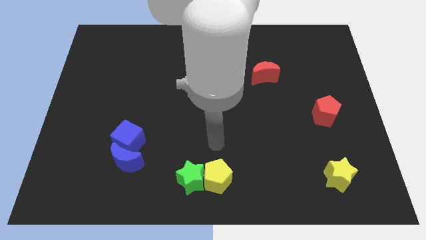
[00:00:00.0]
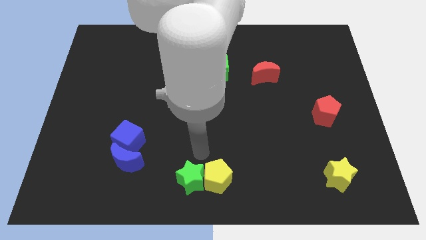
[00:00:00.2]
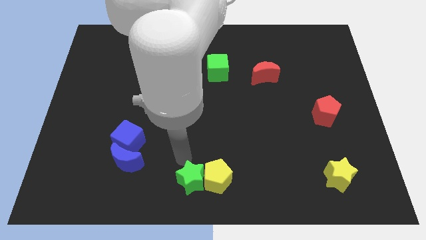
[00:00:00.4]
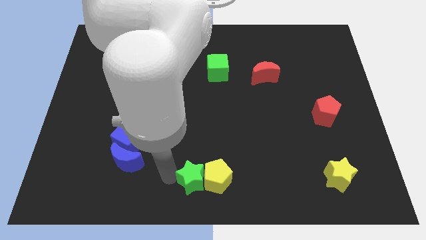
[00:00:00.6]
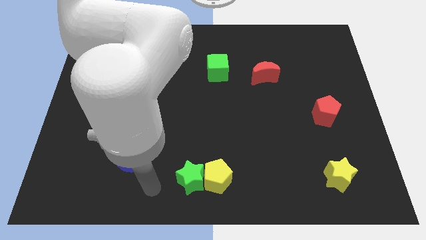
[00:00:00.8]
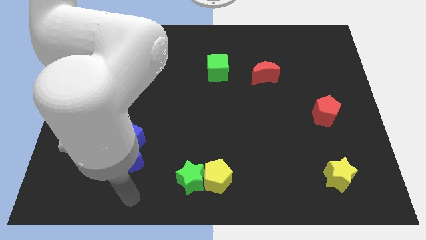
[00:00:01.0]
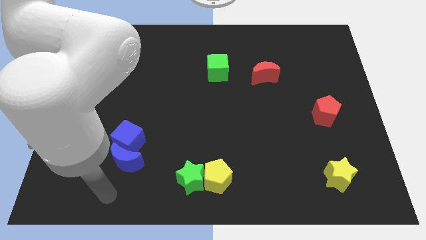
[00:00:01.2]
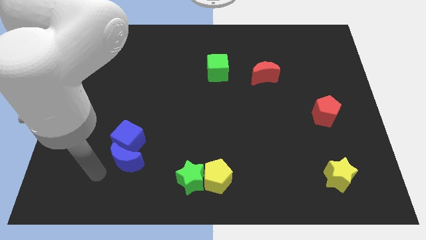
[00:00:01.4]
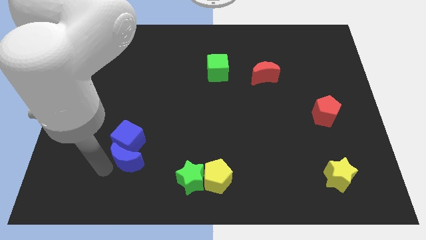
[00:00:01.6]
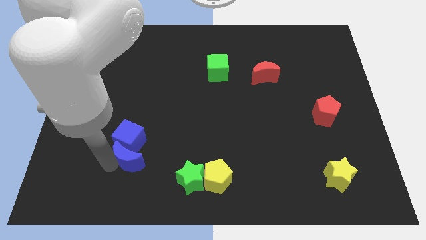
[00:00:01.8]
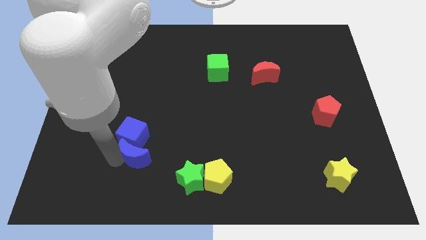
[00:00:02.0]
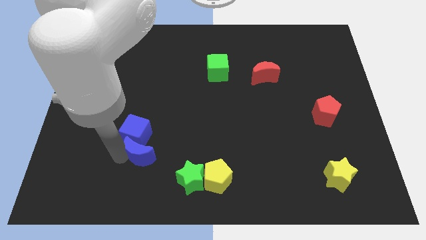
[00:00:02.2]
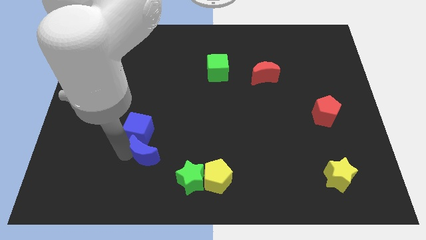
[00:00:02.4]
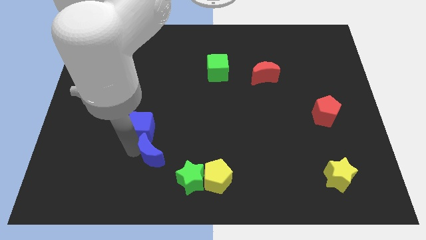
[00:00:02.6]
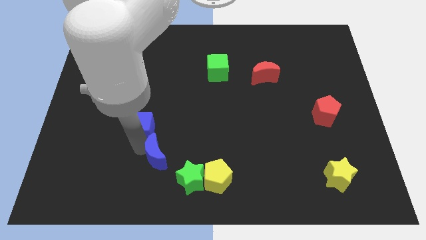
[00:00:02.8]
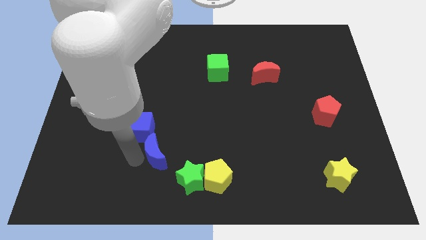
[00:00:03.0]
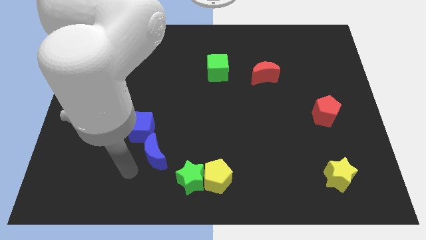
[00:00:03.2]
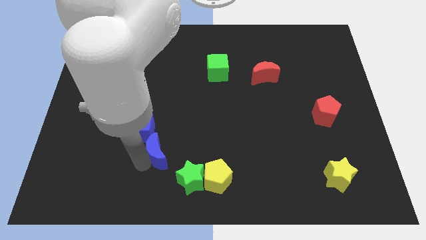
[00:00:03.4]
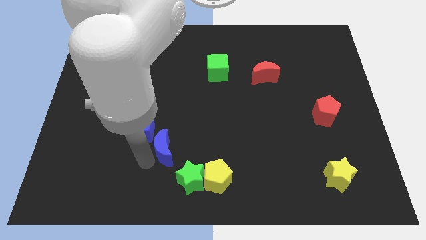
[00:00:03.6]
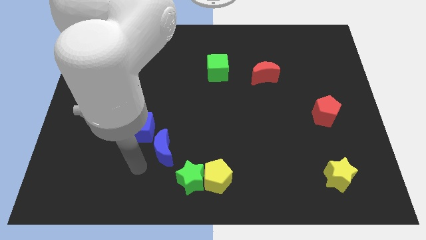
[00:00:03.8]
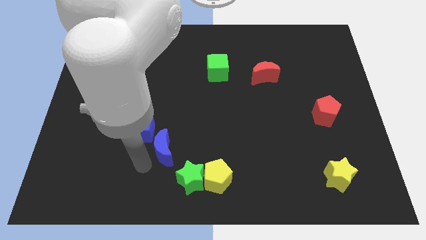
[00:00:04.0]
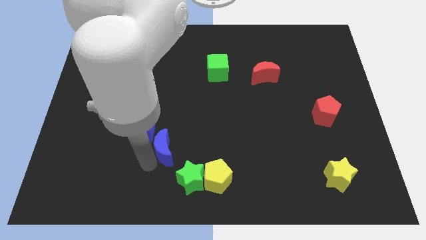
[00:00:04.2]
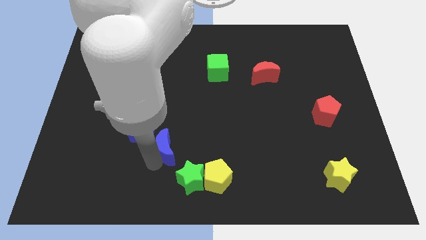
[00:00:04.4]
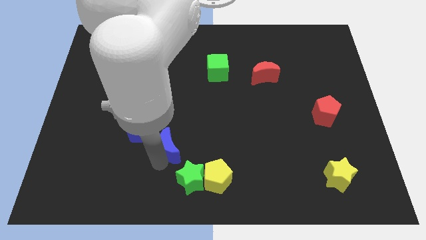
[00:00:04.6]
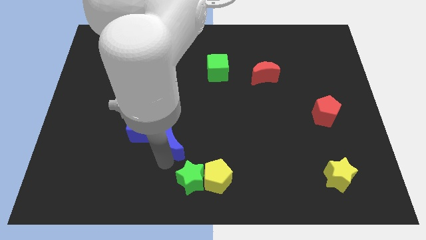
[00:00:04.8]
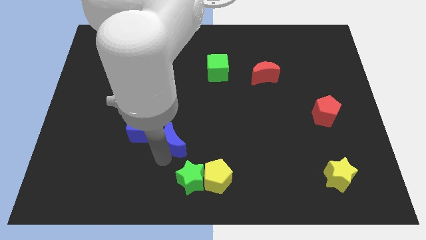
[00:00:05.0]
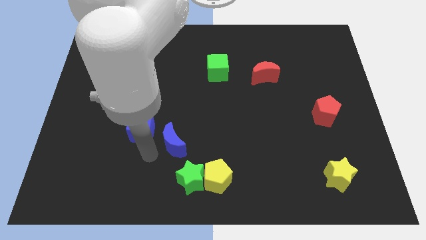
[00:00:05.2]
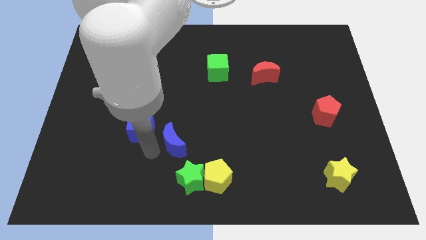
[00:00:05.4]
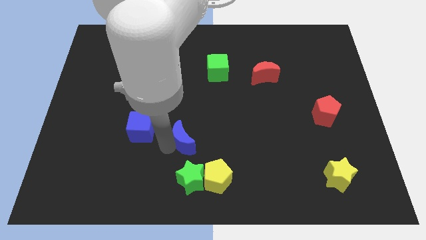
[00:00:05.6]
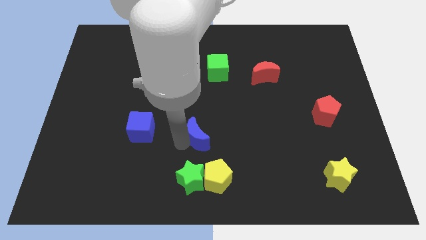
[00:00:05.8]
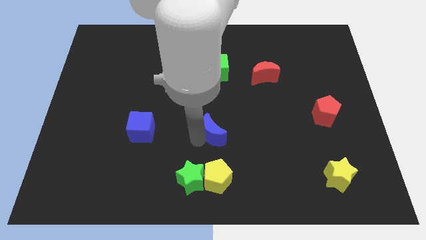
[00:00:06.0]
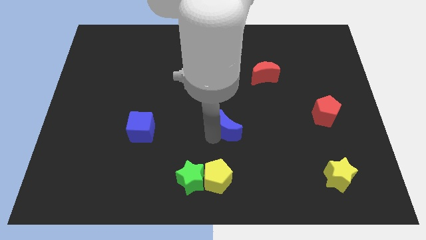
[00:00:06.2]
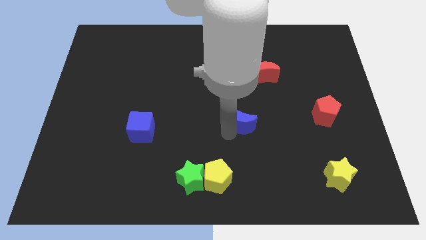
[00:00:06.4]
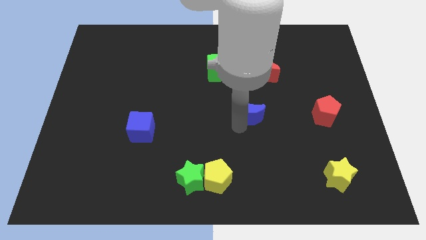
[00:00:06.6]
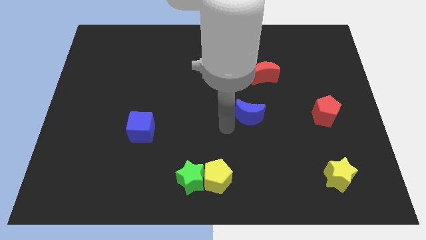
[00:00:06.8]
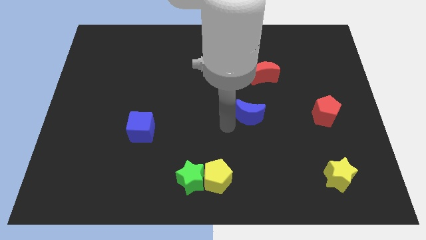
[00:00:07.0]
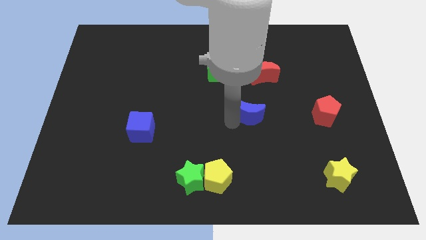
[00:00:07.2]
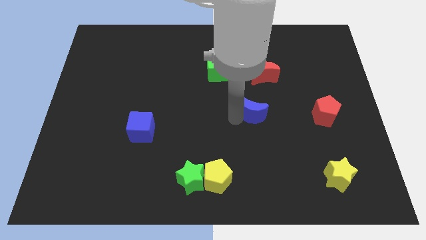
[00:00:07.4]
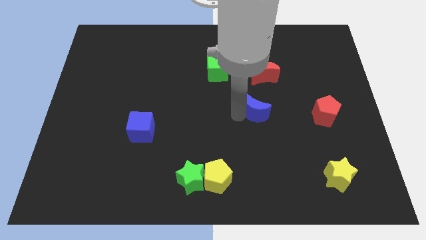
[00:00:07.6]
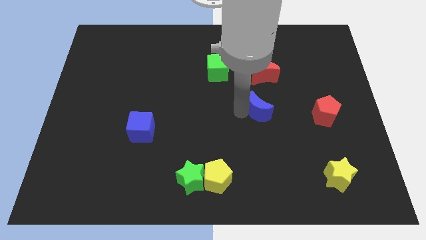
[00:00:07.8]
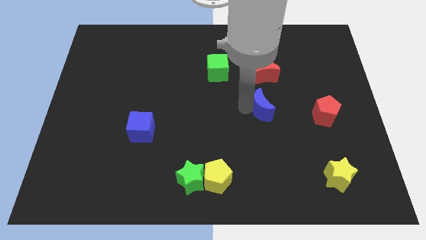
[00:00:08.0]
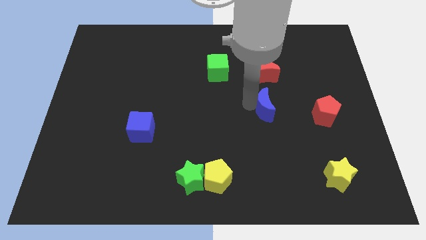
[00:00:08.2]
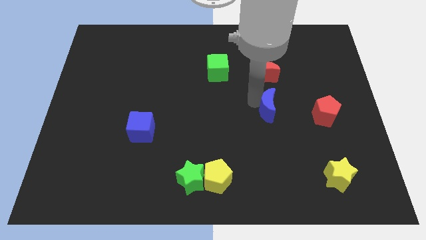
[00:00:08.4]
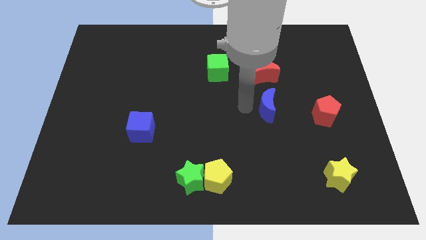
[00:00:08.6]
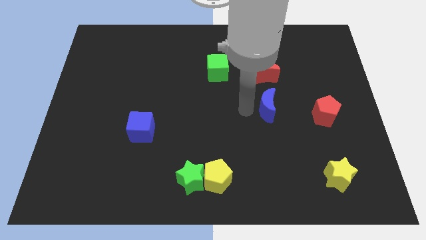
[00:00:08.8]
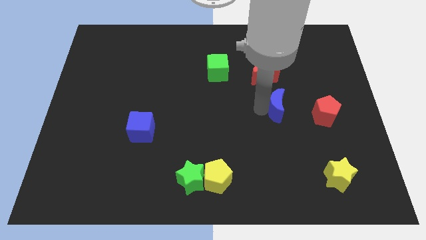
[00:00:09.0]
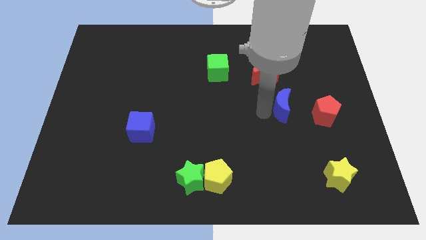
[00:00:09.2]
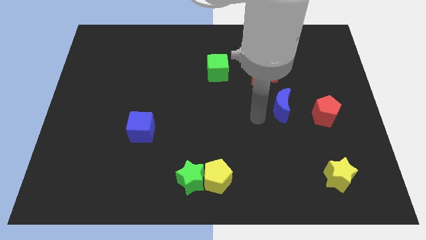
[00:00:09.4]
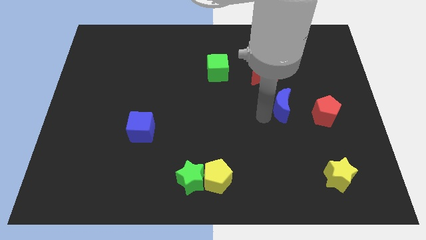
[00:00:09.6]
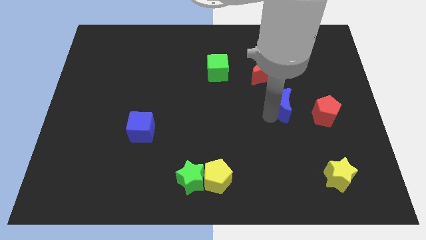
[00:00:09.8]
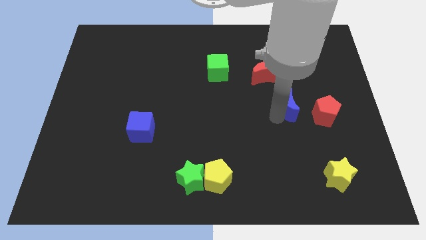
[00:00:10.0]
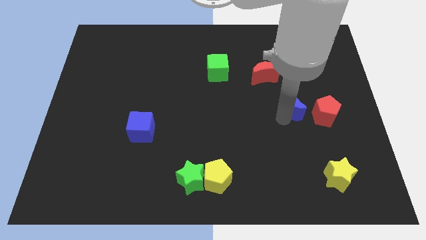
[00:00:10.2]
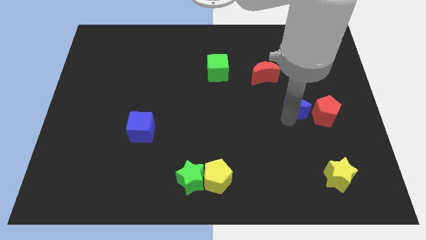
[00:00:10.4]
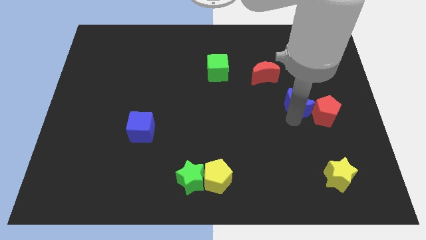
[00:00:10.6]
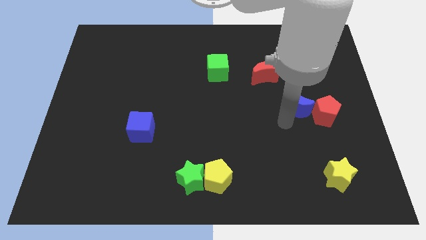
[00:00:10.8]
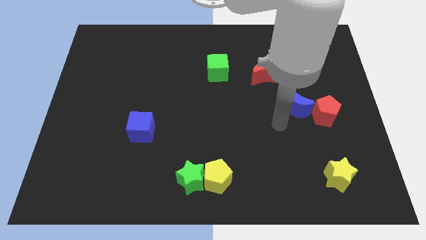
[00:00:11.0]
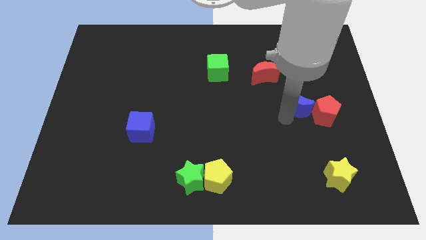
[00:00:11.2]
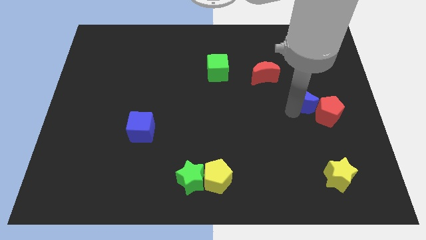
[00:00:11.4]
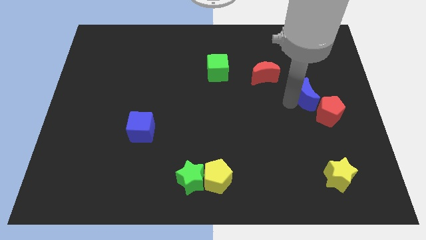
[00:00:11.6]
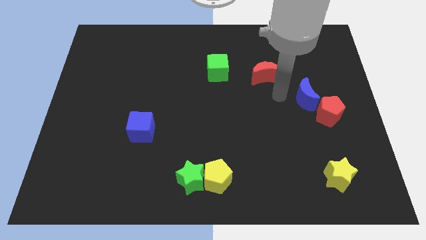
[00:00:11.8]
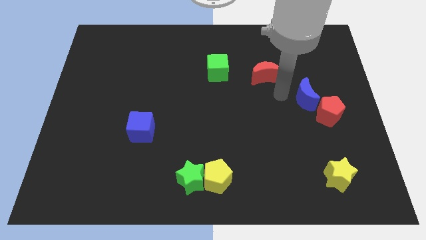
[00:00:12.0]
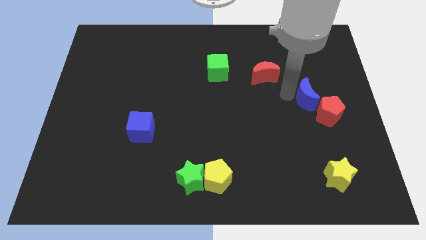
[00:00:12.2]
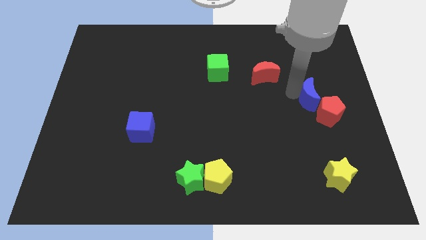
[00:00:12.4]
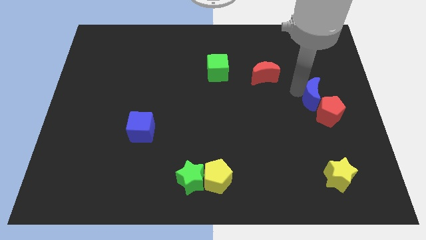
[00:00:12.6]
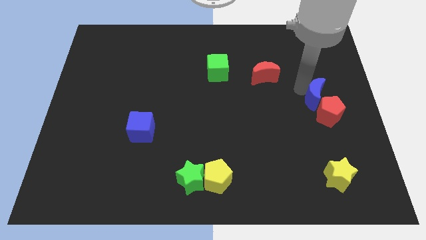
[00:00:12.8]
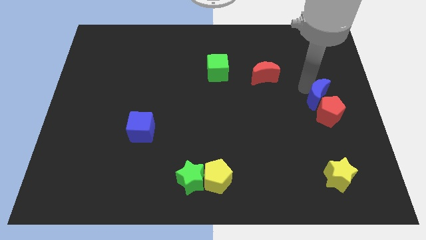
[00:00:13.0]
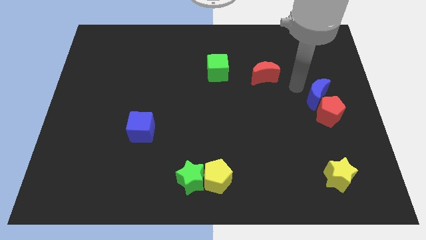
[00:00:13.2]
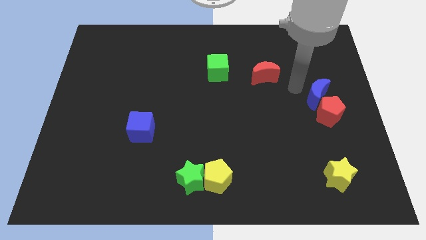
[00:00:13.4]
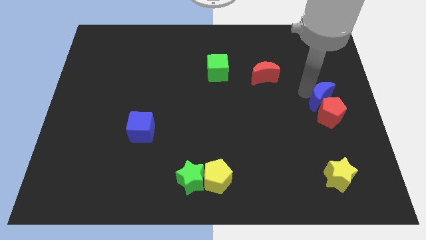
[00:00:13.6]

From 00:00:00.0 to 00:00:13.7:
slide the blue moon to the right side
